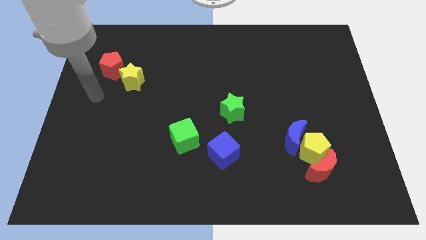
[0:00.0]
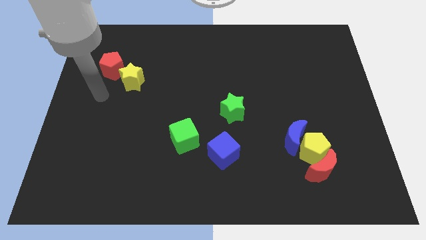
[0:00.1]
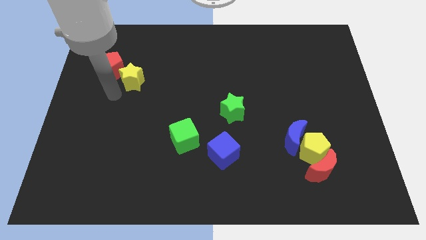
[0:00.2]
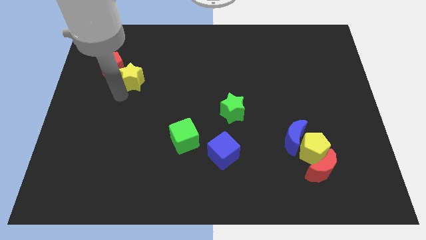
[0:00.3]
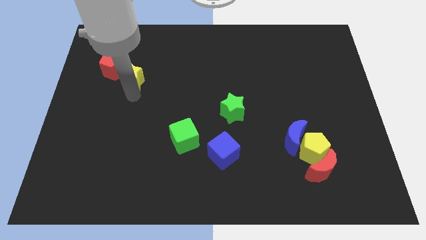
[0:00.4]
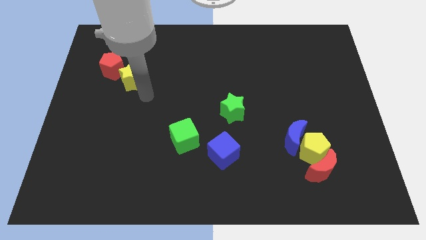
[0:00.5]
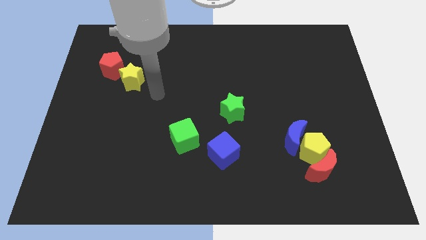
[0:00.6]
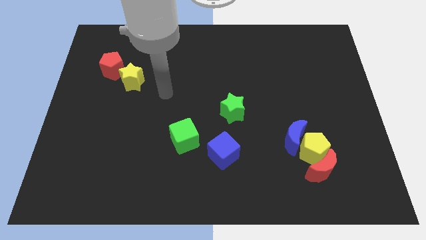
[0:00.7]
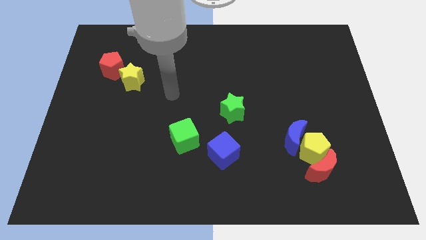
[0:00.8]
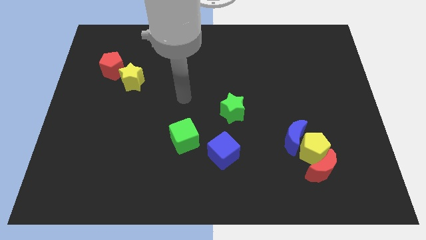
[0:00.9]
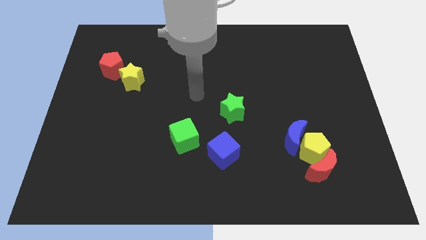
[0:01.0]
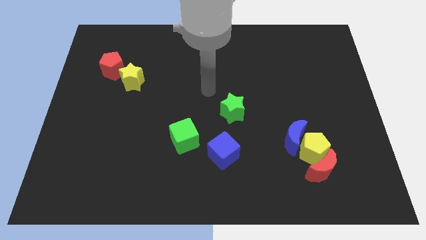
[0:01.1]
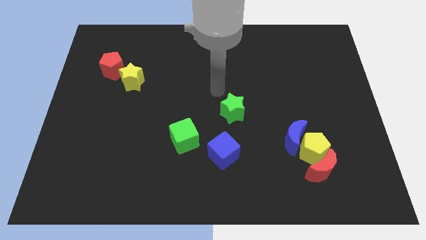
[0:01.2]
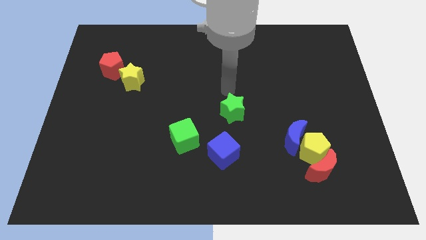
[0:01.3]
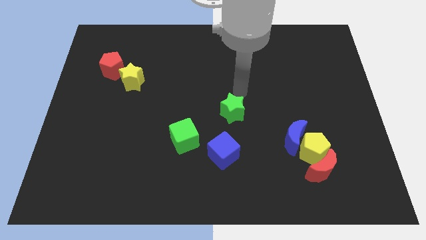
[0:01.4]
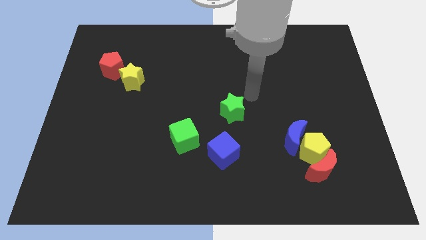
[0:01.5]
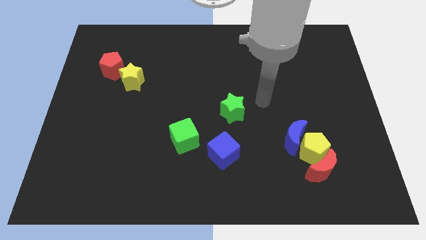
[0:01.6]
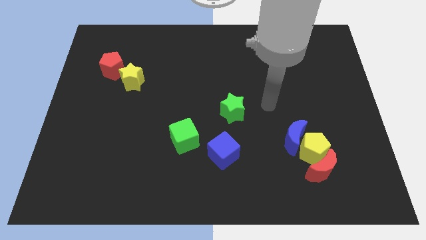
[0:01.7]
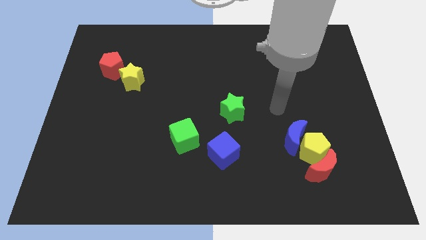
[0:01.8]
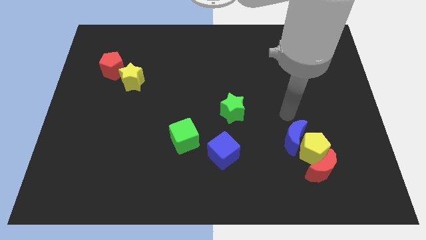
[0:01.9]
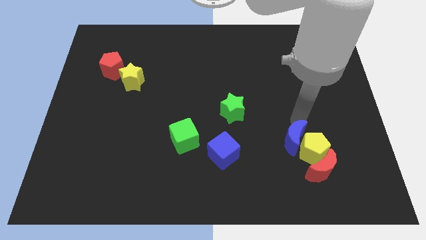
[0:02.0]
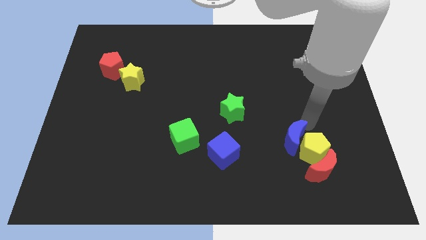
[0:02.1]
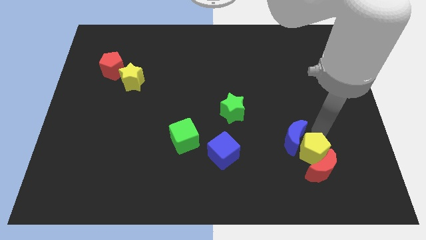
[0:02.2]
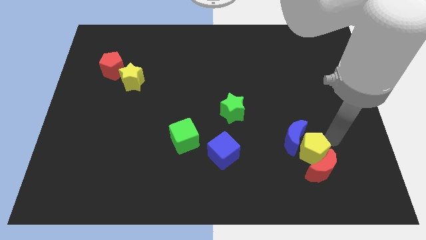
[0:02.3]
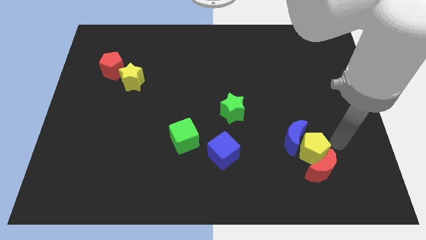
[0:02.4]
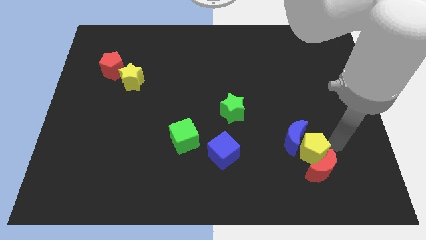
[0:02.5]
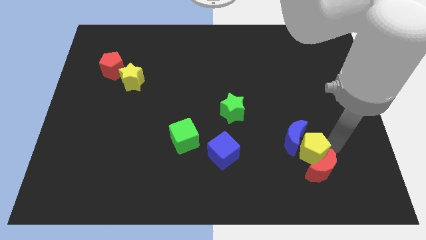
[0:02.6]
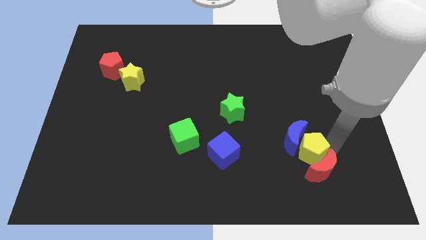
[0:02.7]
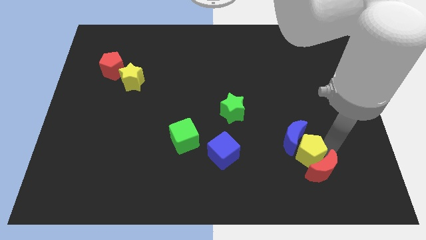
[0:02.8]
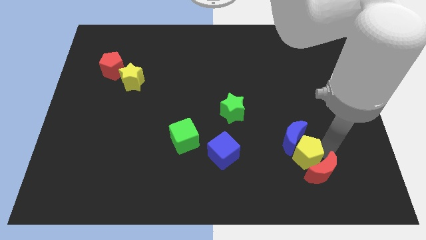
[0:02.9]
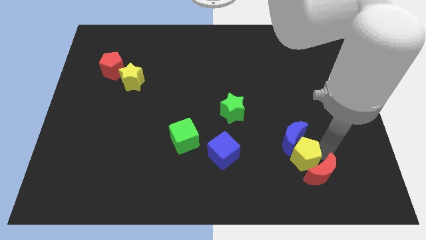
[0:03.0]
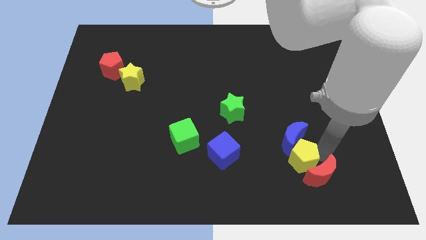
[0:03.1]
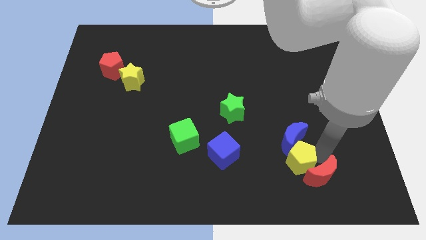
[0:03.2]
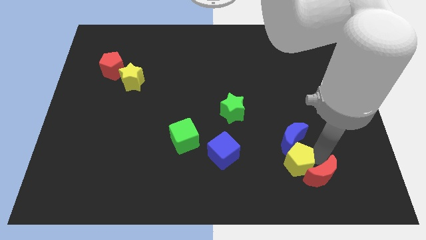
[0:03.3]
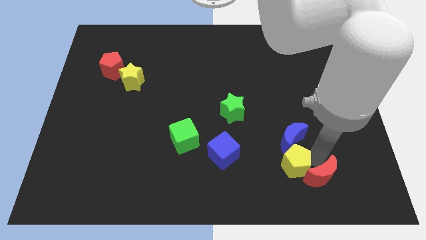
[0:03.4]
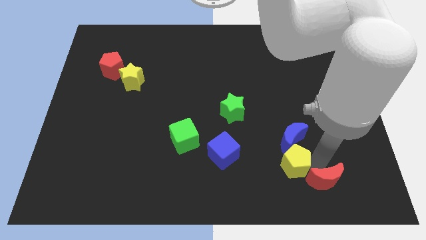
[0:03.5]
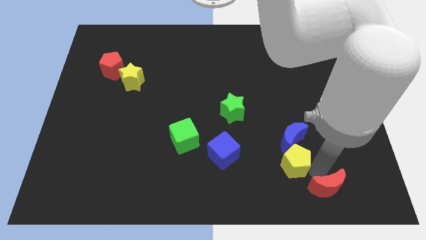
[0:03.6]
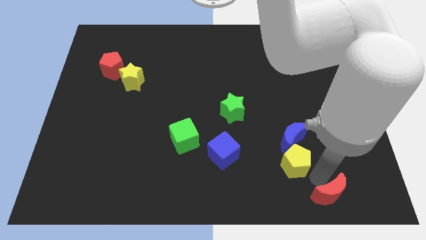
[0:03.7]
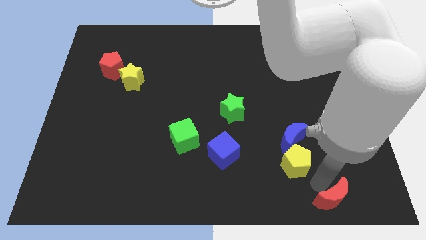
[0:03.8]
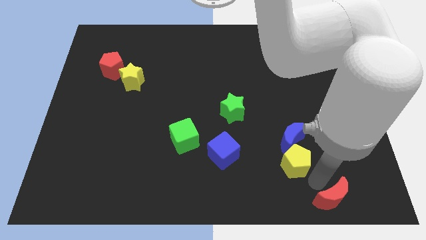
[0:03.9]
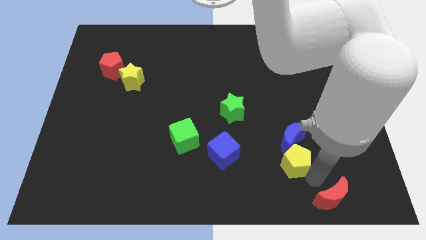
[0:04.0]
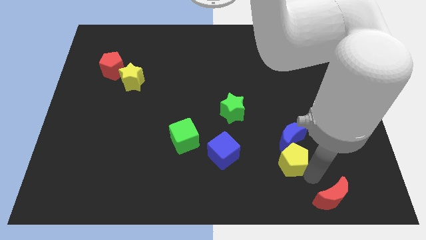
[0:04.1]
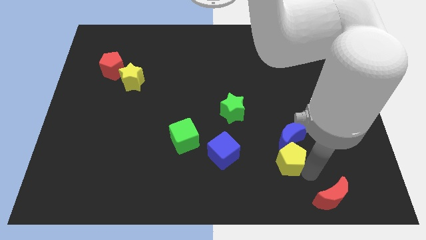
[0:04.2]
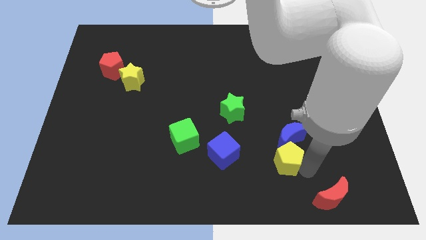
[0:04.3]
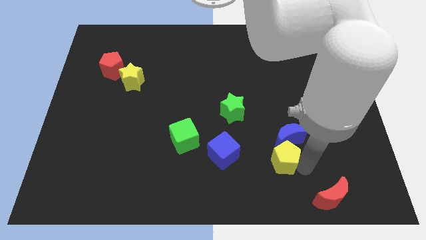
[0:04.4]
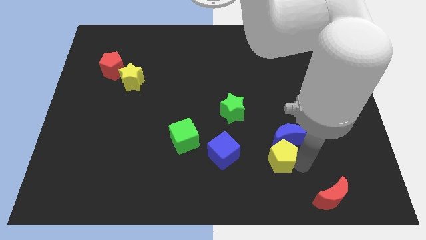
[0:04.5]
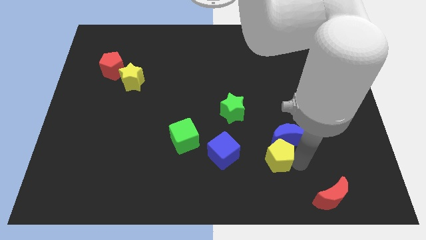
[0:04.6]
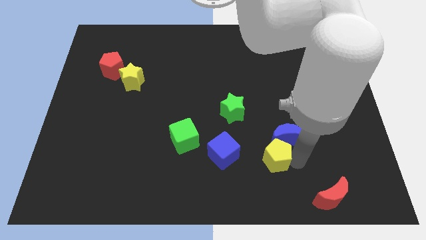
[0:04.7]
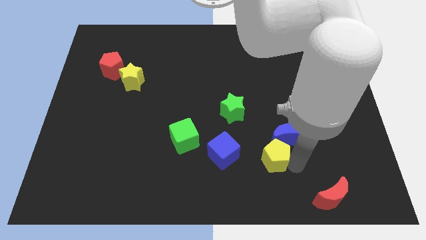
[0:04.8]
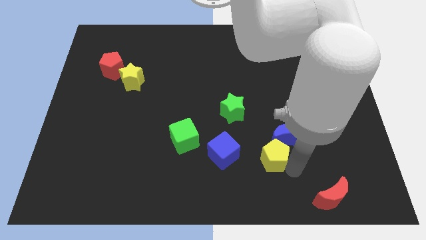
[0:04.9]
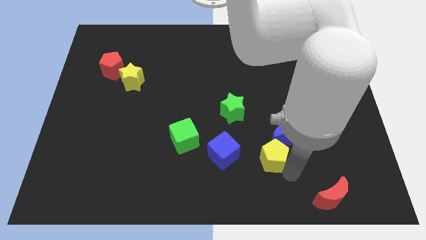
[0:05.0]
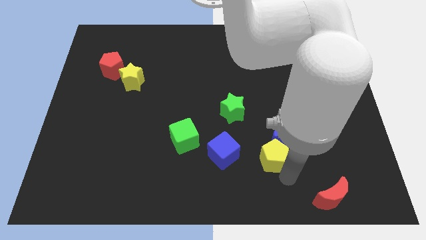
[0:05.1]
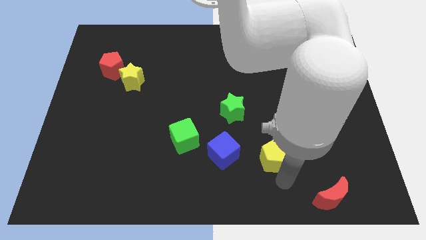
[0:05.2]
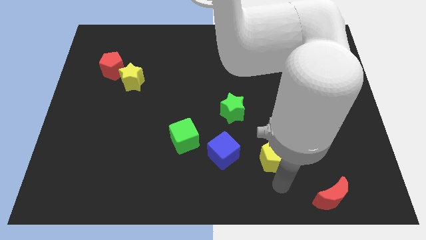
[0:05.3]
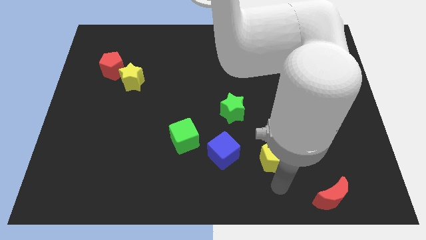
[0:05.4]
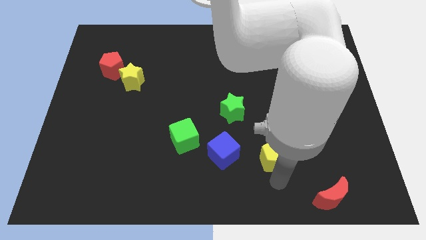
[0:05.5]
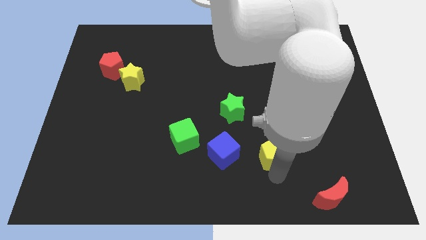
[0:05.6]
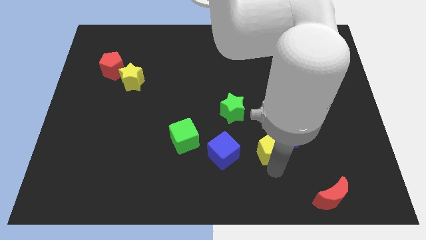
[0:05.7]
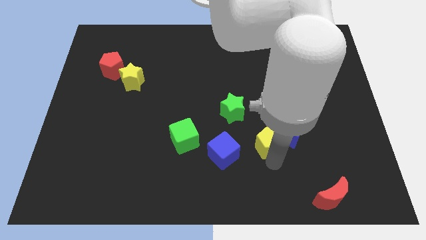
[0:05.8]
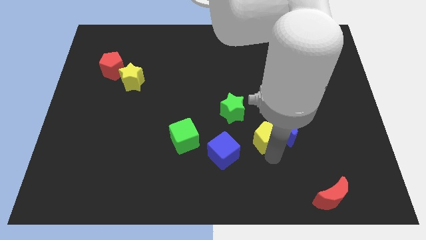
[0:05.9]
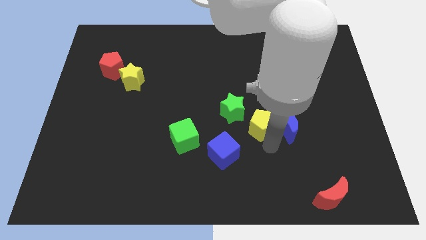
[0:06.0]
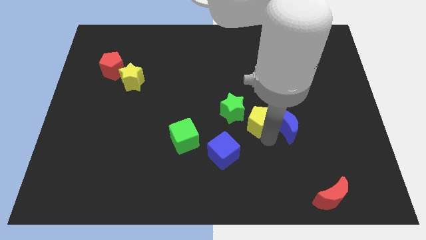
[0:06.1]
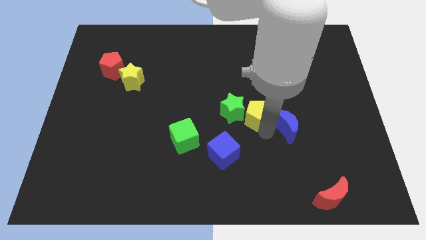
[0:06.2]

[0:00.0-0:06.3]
push the yellow pentagon towards the green star
